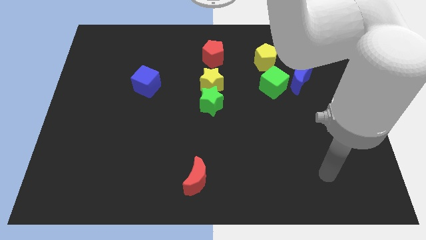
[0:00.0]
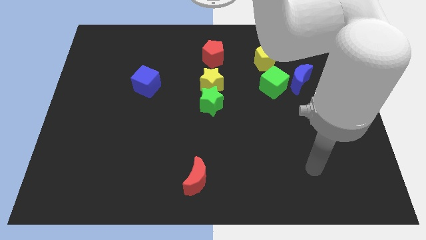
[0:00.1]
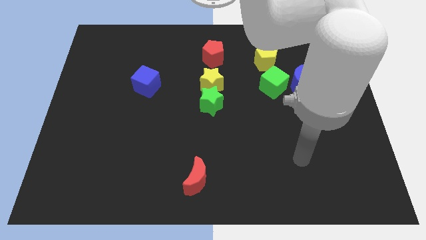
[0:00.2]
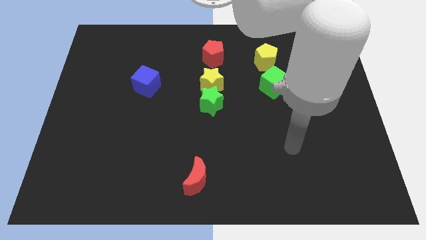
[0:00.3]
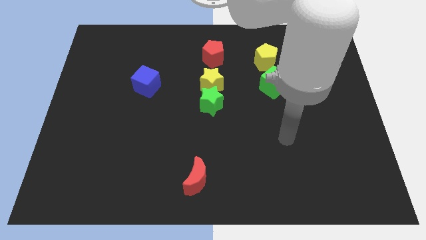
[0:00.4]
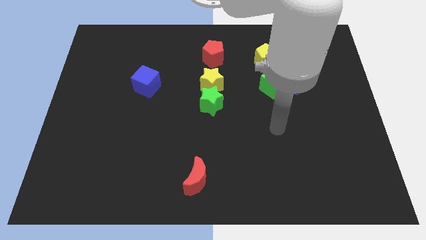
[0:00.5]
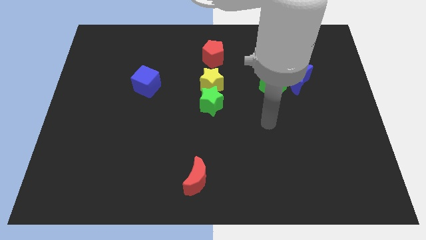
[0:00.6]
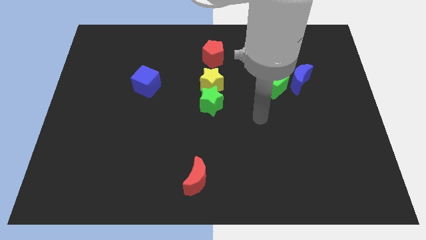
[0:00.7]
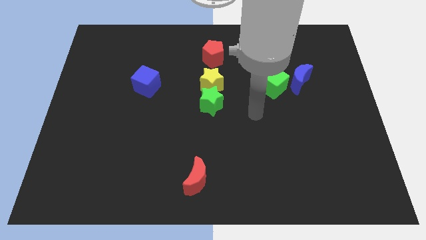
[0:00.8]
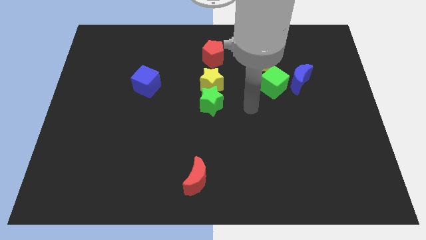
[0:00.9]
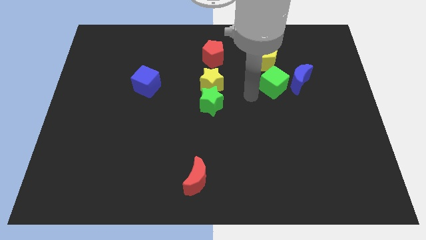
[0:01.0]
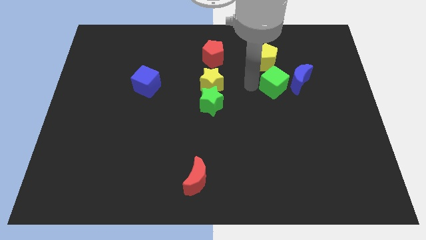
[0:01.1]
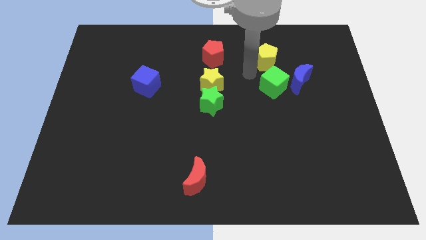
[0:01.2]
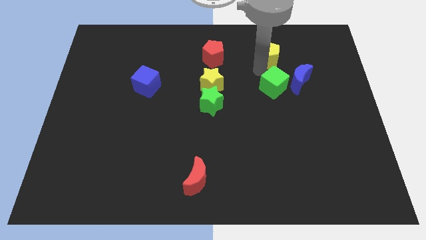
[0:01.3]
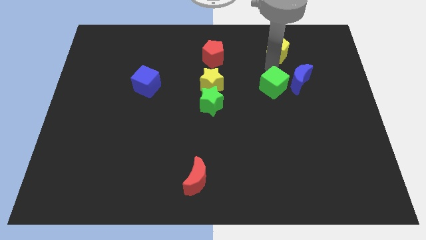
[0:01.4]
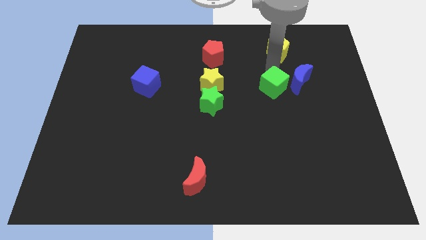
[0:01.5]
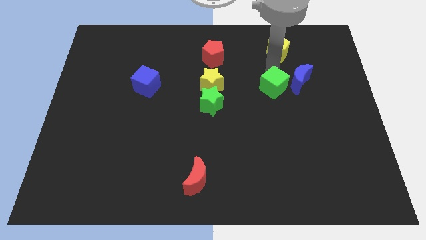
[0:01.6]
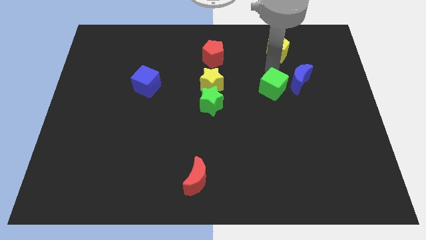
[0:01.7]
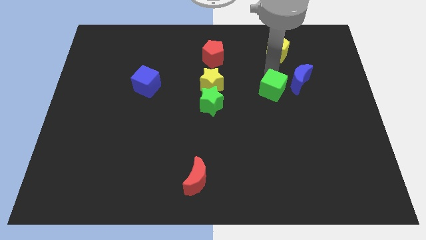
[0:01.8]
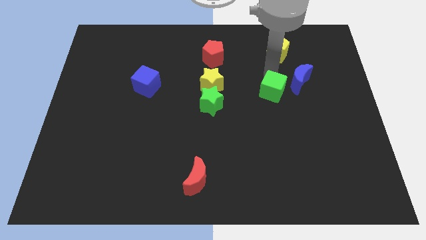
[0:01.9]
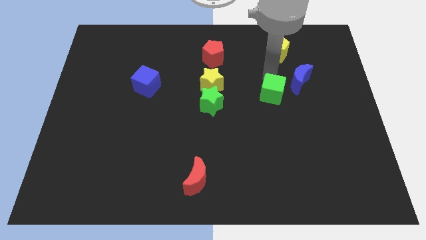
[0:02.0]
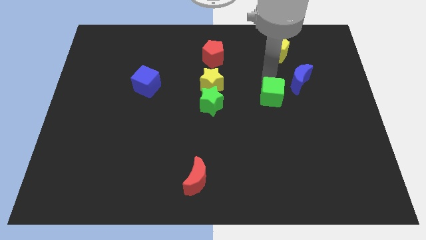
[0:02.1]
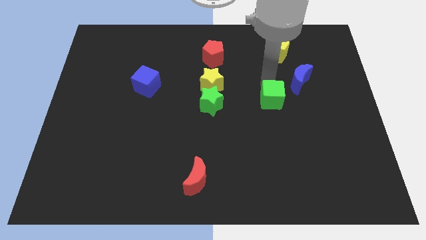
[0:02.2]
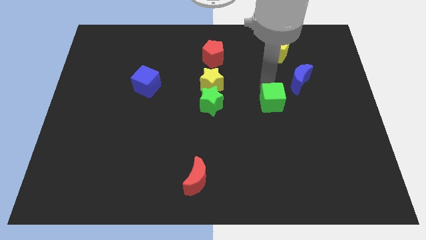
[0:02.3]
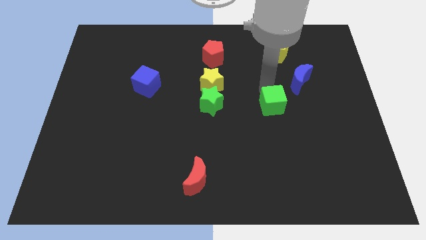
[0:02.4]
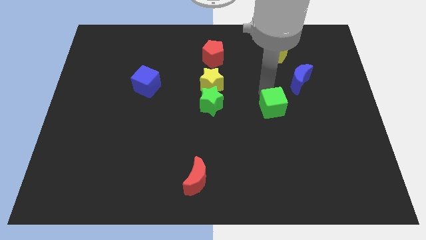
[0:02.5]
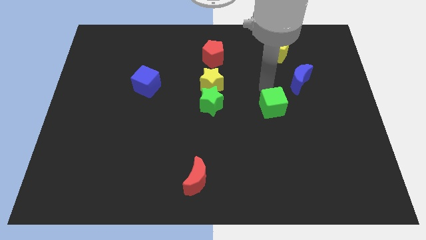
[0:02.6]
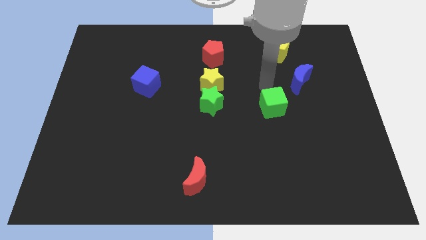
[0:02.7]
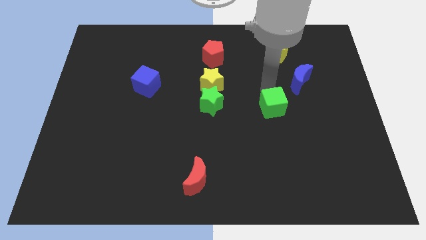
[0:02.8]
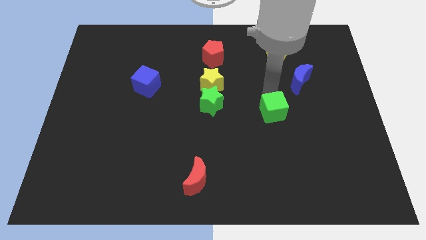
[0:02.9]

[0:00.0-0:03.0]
push the green cube a bit down

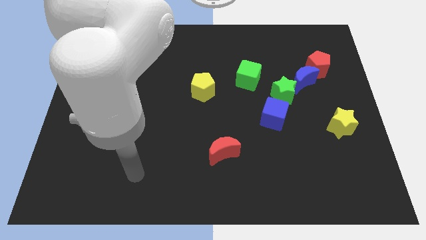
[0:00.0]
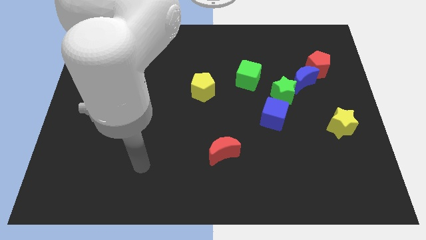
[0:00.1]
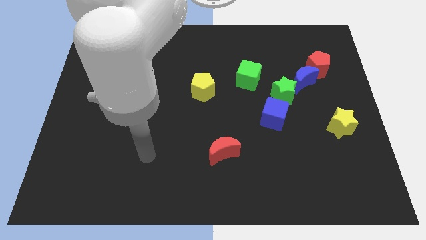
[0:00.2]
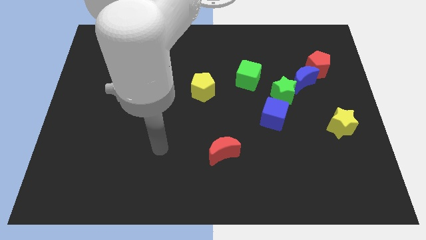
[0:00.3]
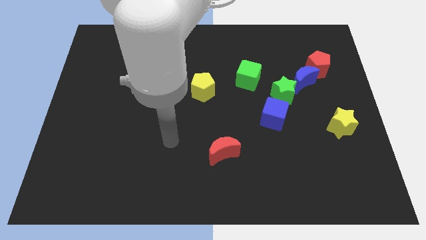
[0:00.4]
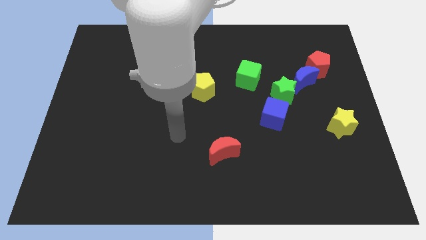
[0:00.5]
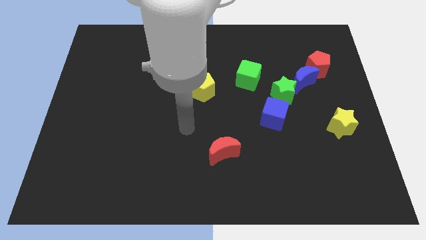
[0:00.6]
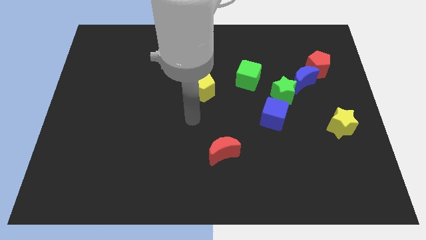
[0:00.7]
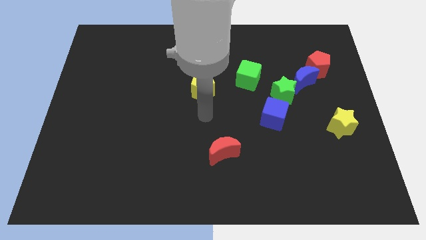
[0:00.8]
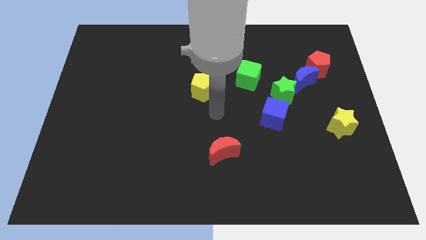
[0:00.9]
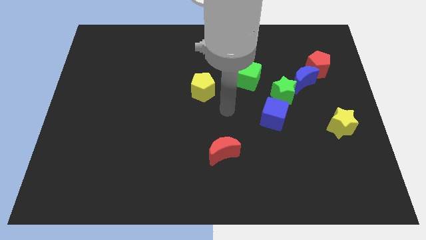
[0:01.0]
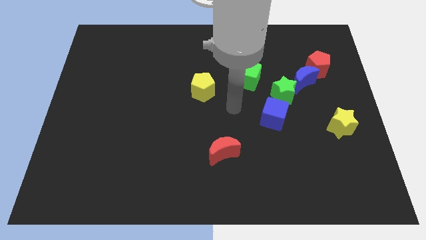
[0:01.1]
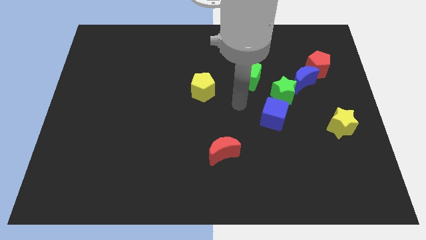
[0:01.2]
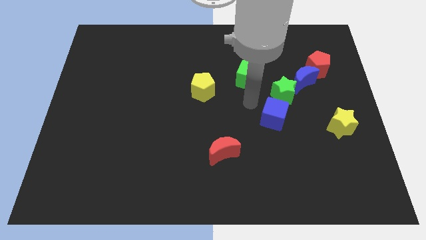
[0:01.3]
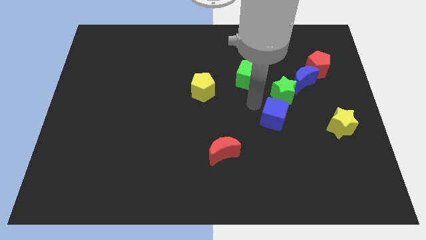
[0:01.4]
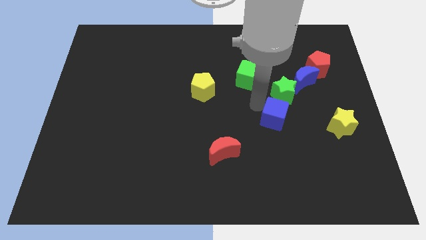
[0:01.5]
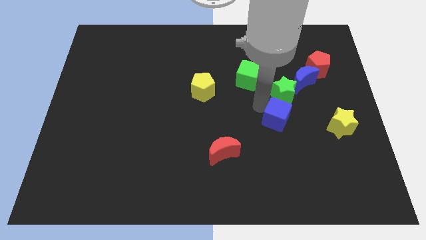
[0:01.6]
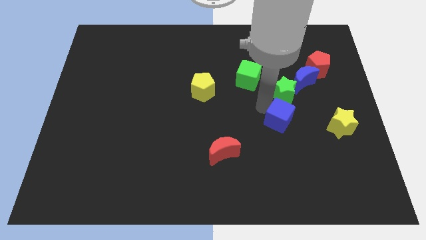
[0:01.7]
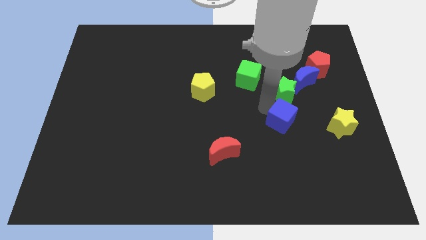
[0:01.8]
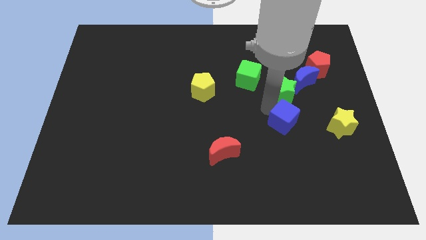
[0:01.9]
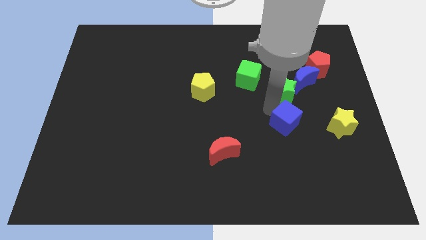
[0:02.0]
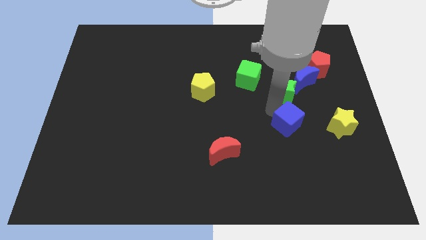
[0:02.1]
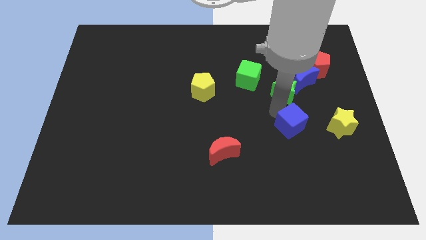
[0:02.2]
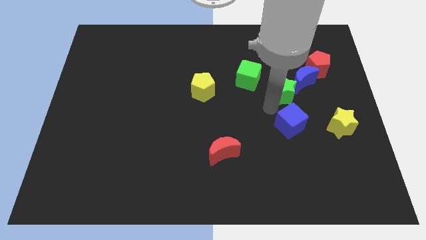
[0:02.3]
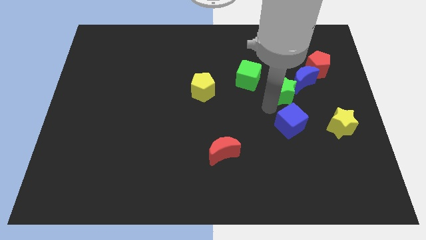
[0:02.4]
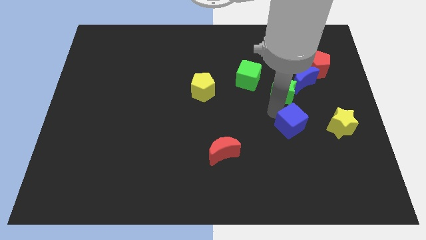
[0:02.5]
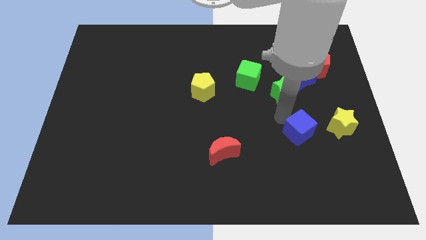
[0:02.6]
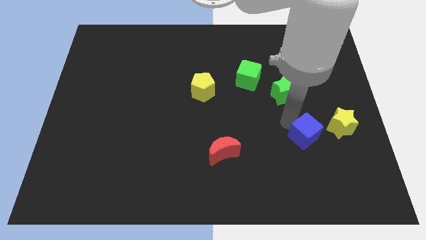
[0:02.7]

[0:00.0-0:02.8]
move the blue cube somewhat diagonally down and right

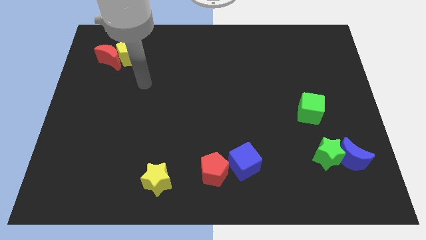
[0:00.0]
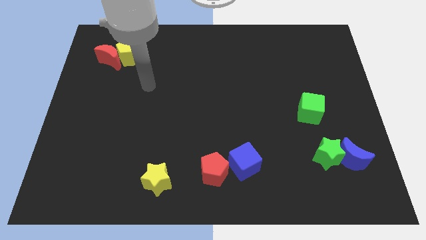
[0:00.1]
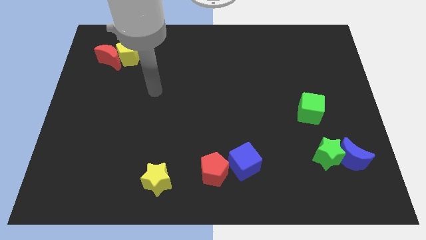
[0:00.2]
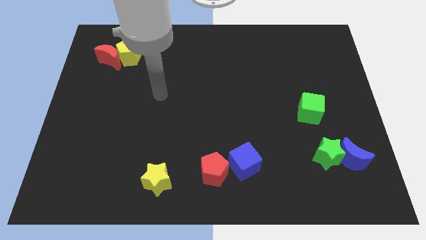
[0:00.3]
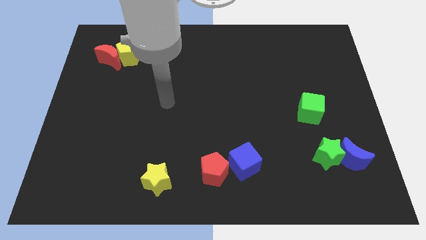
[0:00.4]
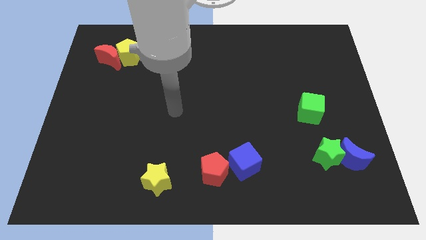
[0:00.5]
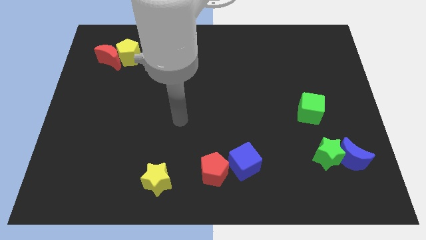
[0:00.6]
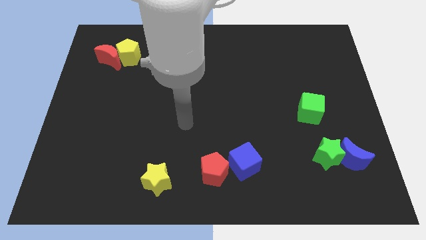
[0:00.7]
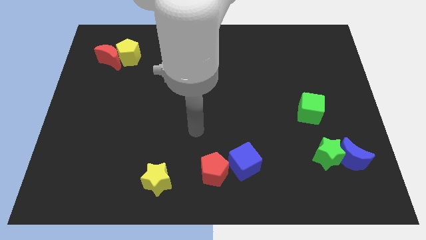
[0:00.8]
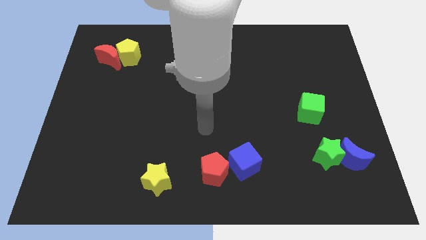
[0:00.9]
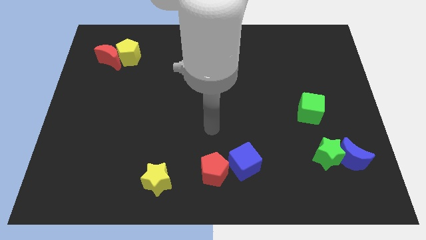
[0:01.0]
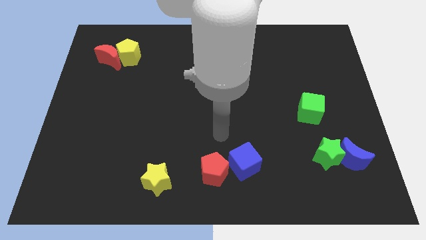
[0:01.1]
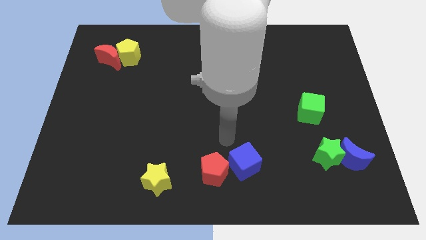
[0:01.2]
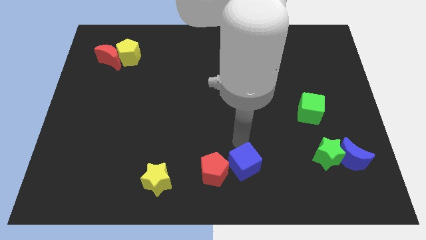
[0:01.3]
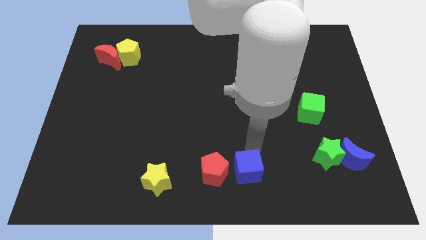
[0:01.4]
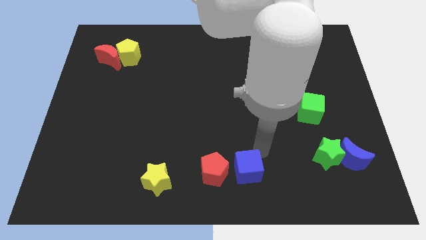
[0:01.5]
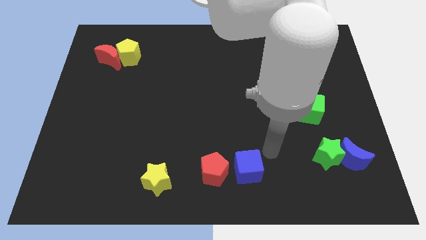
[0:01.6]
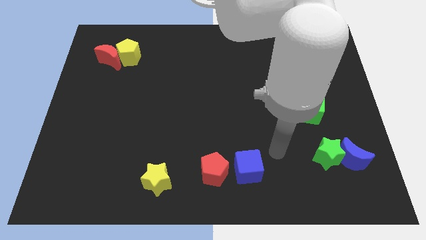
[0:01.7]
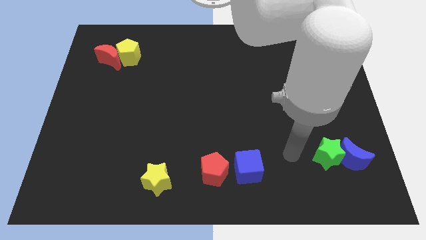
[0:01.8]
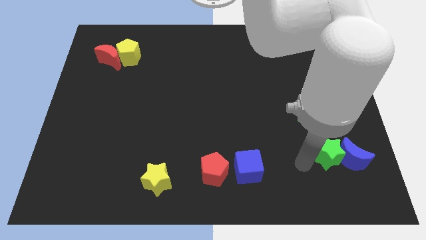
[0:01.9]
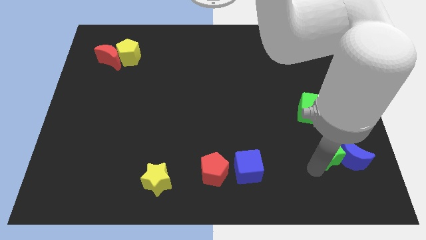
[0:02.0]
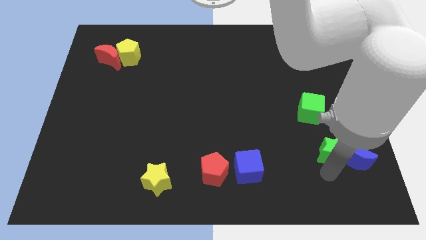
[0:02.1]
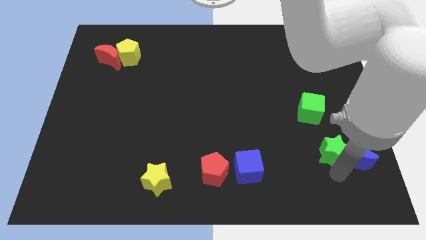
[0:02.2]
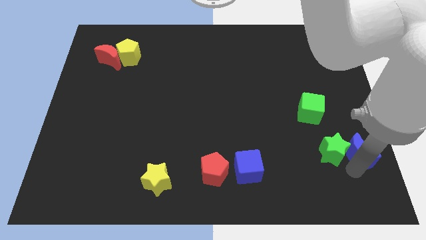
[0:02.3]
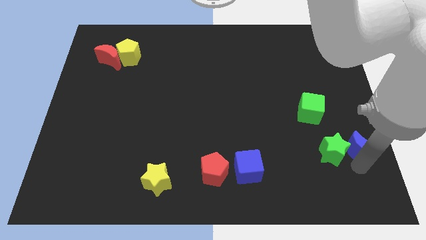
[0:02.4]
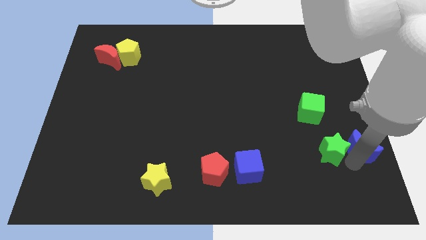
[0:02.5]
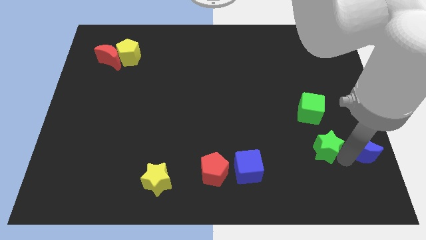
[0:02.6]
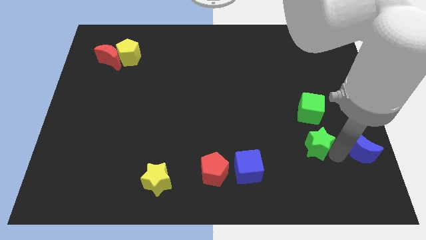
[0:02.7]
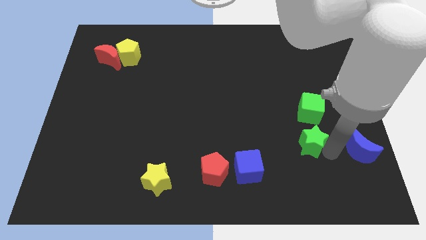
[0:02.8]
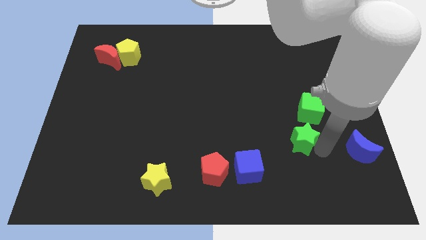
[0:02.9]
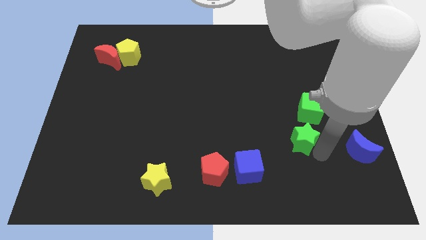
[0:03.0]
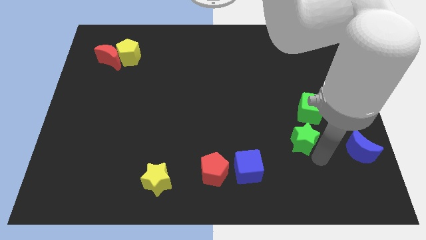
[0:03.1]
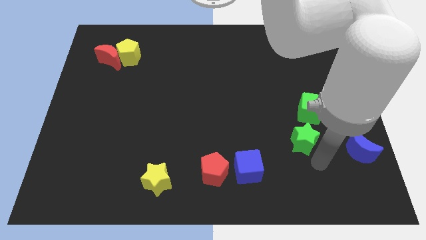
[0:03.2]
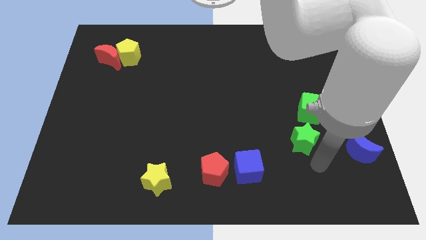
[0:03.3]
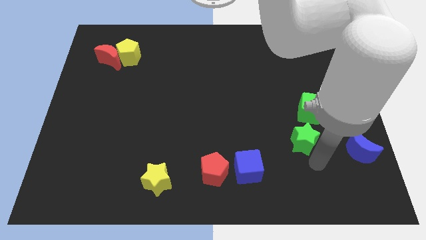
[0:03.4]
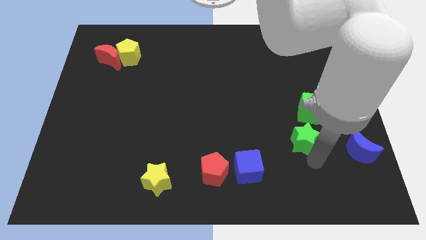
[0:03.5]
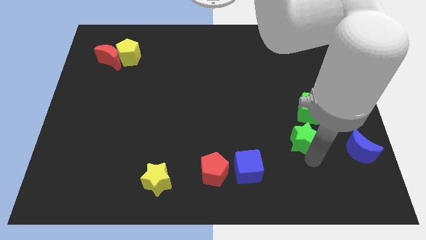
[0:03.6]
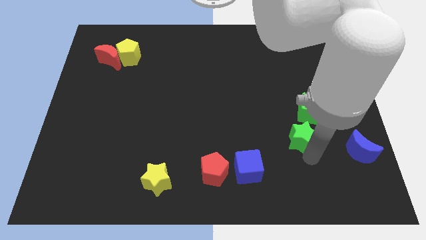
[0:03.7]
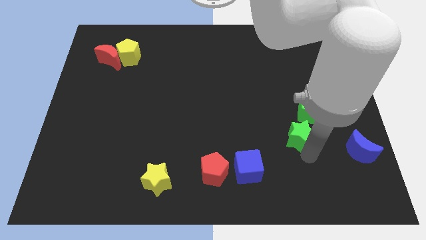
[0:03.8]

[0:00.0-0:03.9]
move the green star upwards and then to the left a bit
